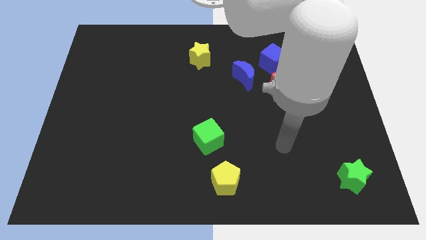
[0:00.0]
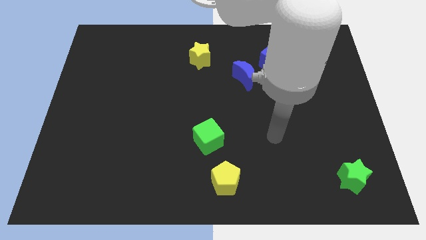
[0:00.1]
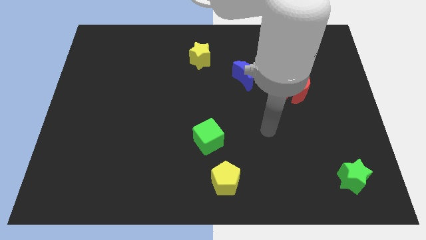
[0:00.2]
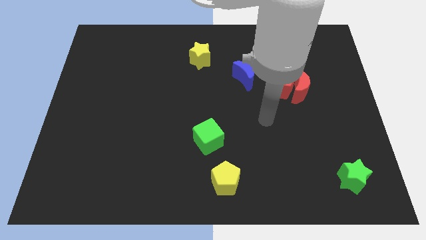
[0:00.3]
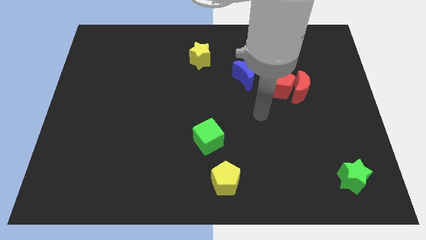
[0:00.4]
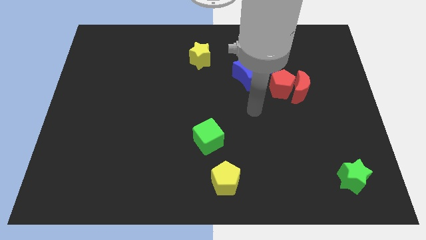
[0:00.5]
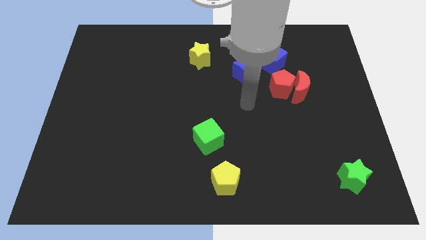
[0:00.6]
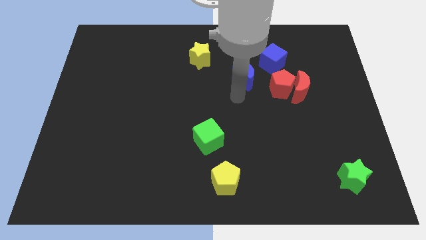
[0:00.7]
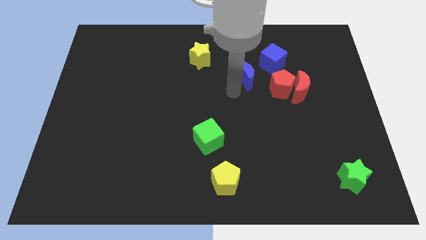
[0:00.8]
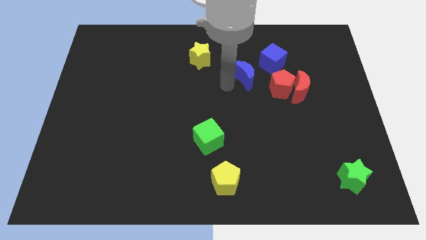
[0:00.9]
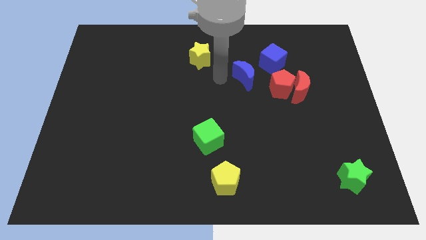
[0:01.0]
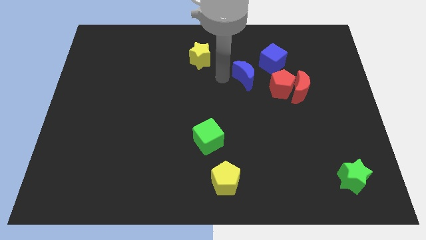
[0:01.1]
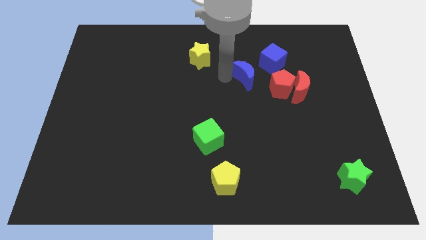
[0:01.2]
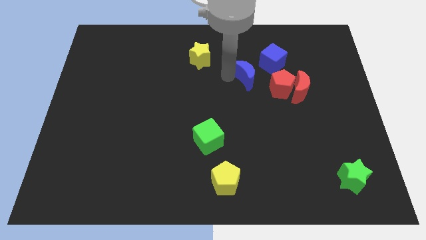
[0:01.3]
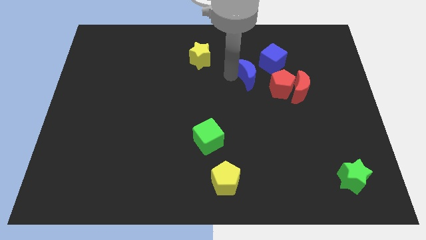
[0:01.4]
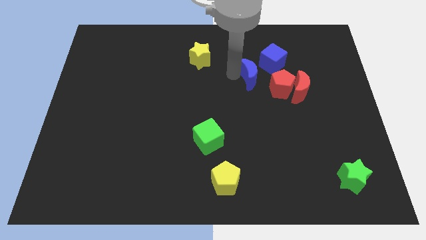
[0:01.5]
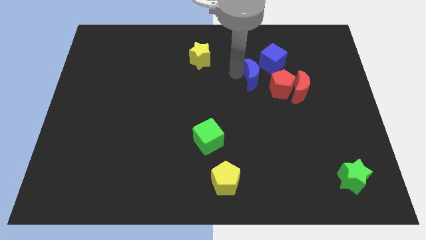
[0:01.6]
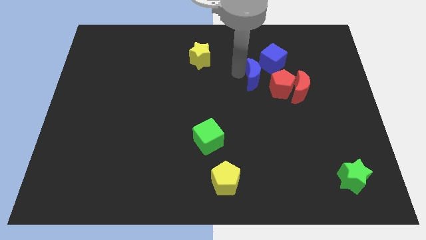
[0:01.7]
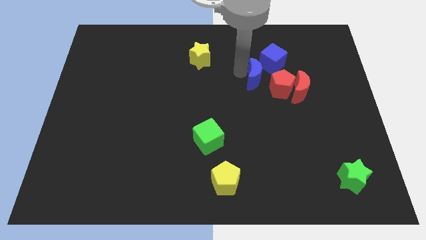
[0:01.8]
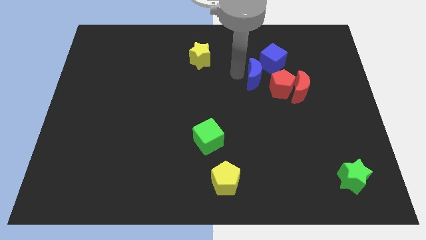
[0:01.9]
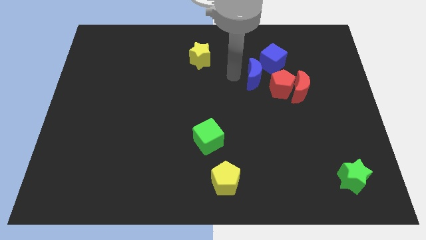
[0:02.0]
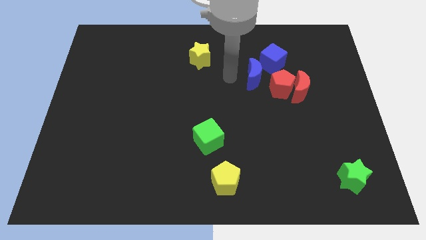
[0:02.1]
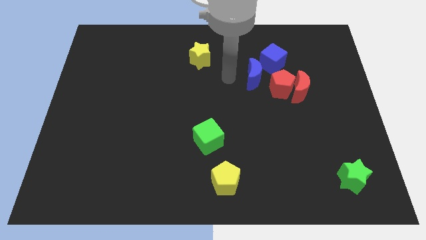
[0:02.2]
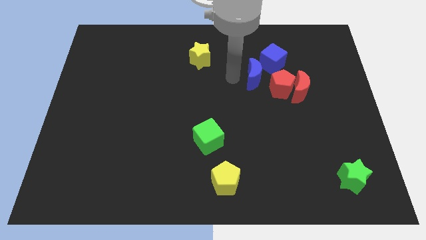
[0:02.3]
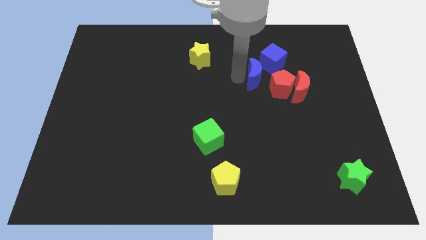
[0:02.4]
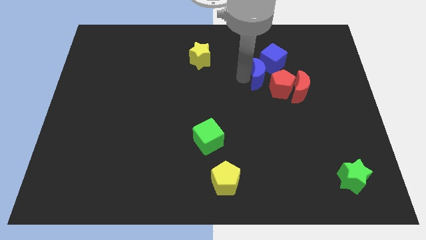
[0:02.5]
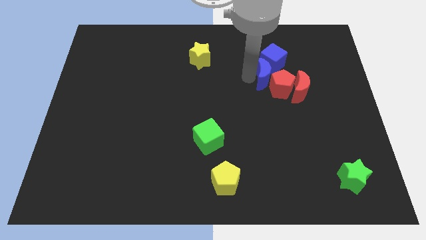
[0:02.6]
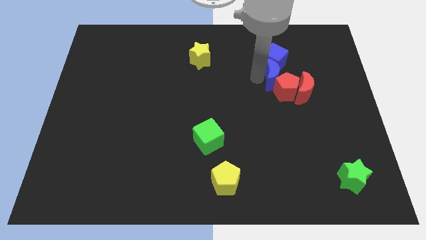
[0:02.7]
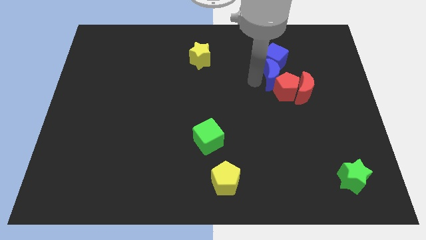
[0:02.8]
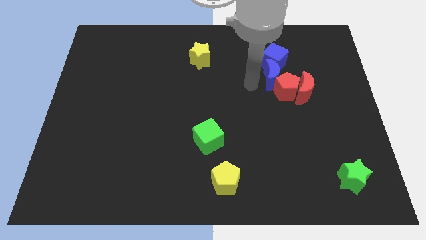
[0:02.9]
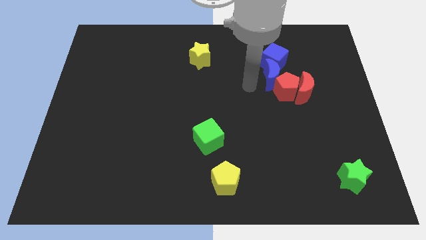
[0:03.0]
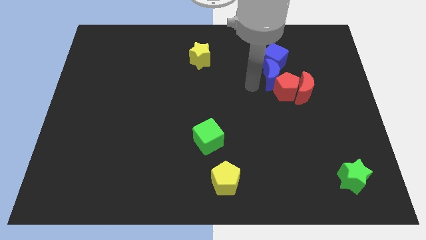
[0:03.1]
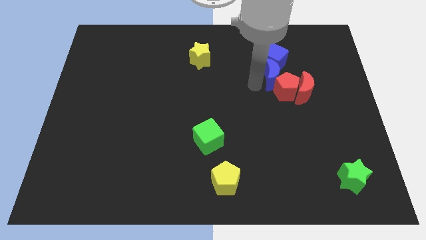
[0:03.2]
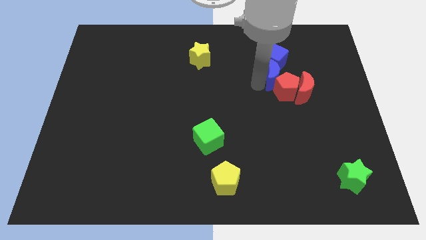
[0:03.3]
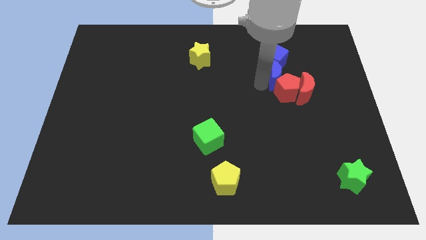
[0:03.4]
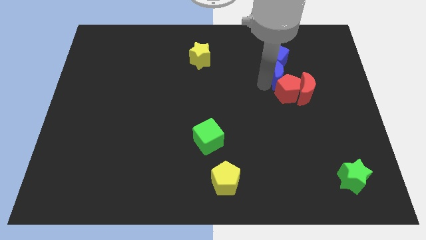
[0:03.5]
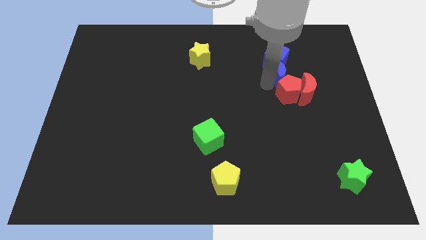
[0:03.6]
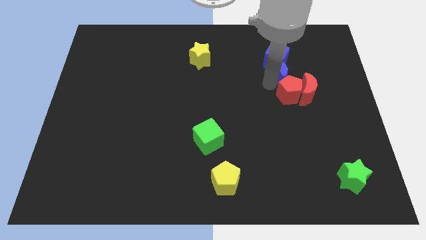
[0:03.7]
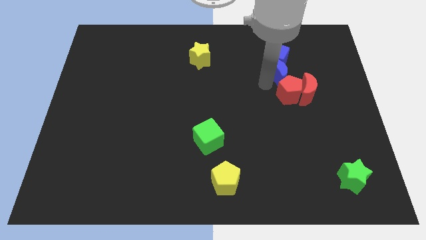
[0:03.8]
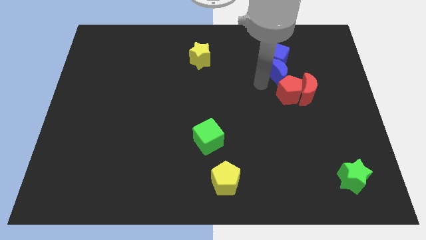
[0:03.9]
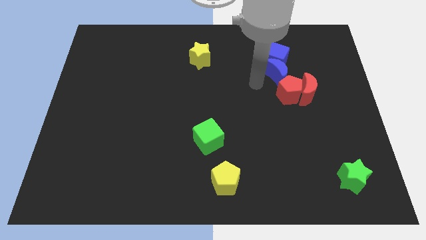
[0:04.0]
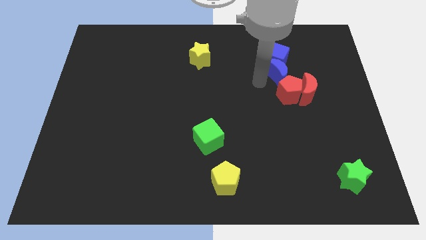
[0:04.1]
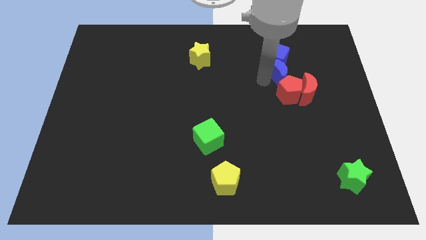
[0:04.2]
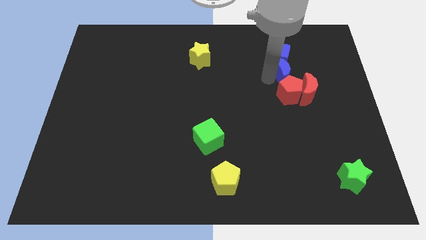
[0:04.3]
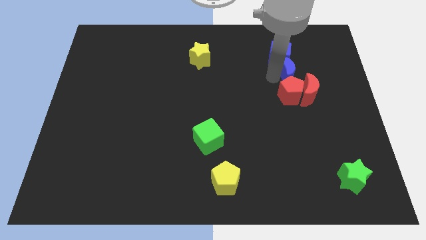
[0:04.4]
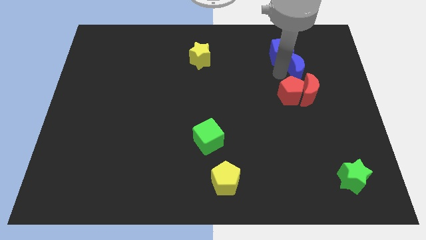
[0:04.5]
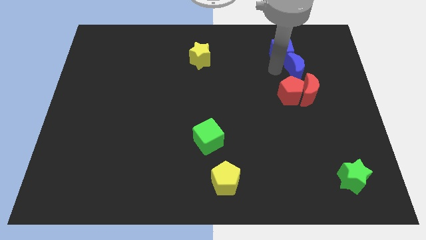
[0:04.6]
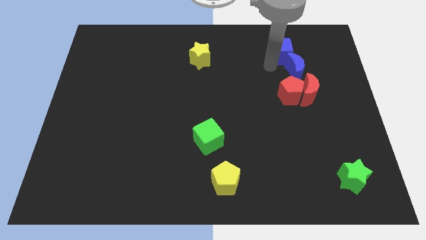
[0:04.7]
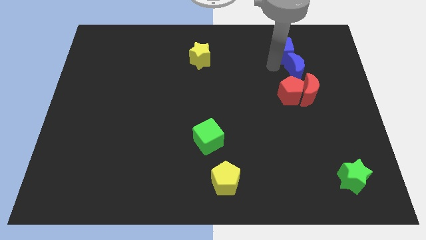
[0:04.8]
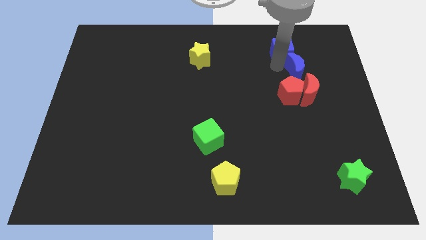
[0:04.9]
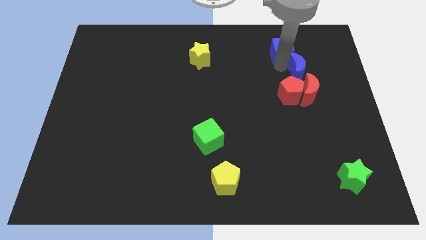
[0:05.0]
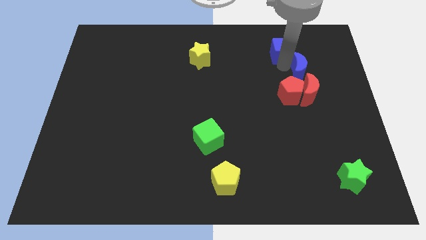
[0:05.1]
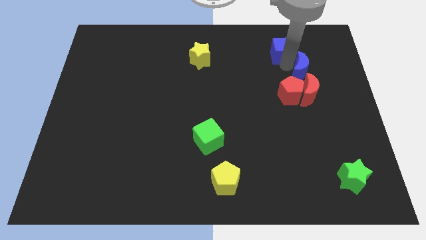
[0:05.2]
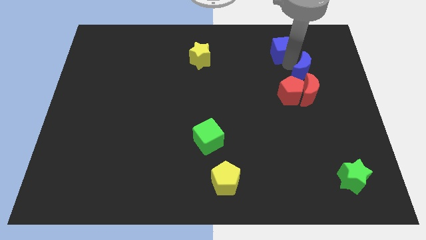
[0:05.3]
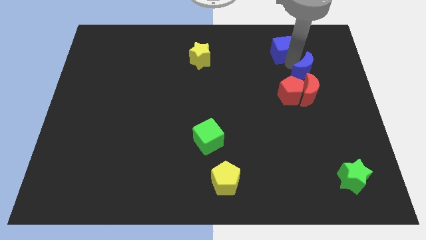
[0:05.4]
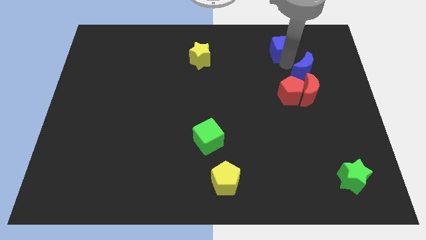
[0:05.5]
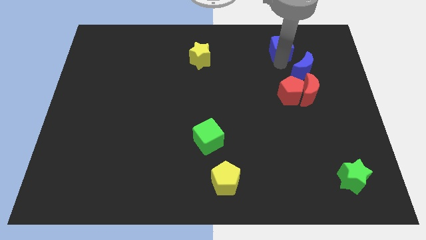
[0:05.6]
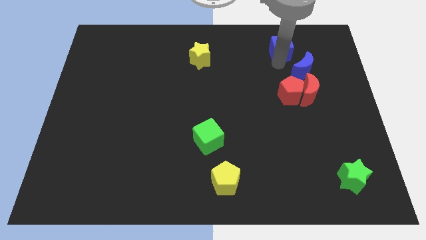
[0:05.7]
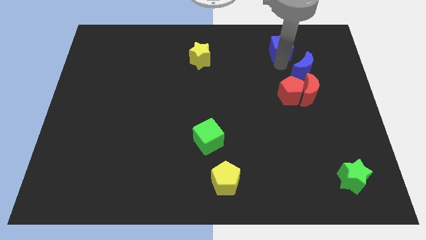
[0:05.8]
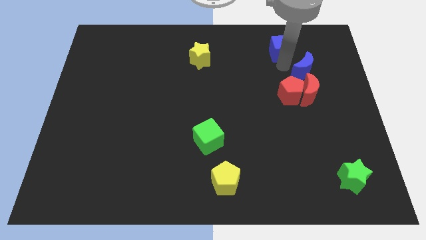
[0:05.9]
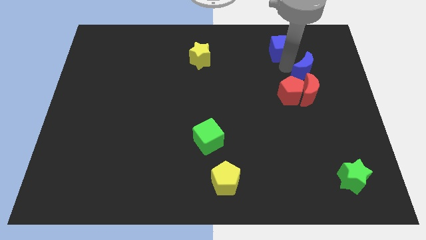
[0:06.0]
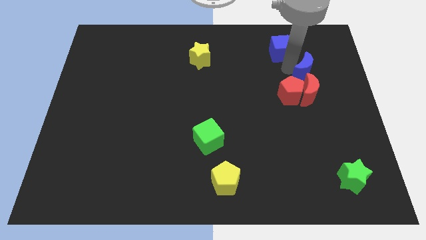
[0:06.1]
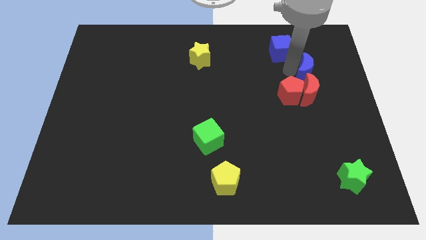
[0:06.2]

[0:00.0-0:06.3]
put the blue moon to the top right side of the red moon

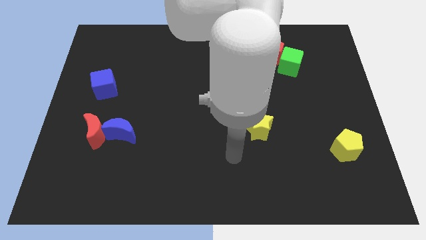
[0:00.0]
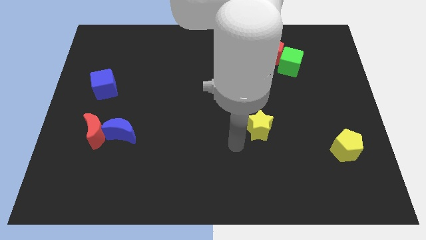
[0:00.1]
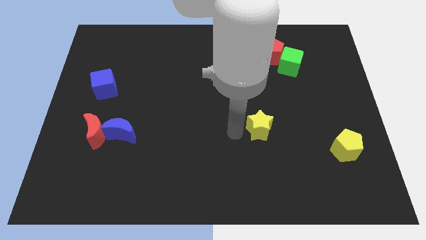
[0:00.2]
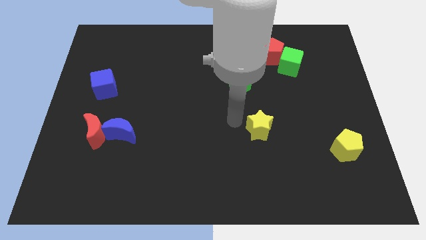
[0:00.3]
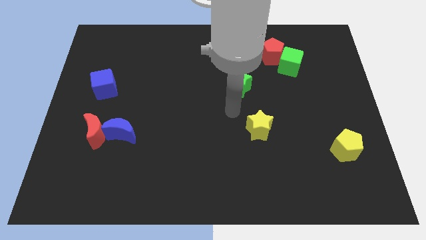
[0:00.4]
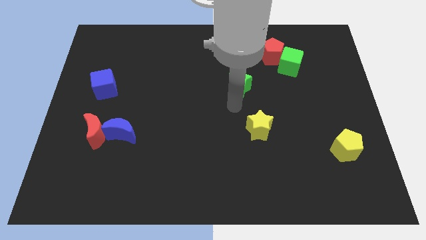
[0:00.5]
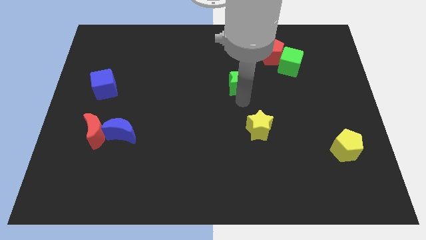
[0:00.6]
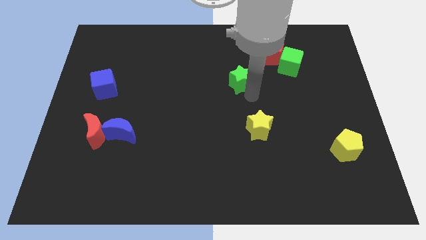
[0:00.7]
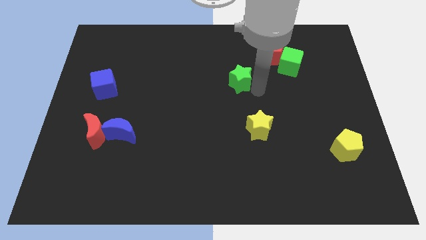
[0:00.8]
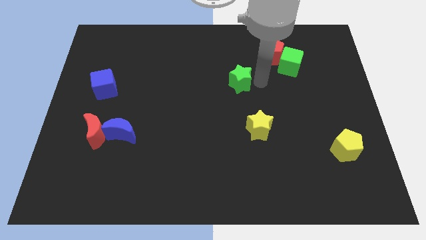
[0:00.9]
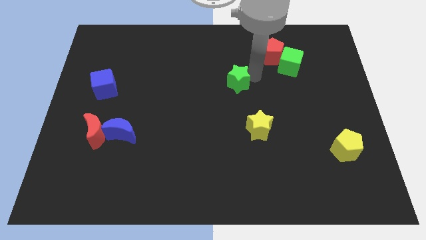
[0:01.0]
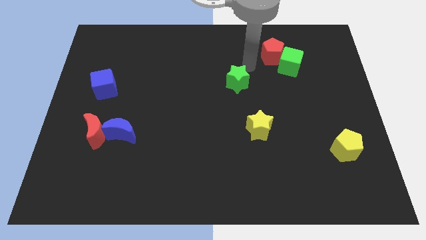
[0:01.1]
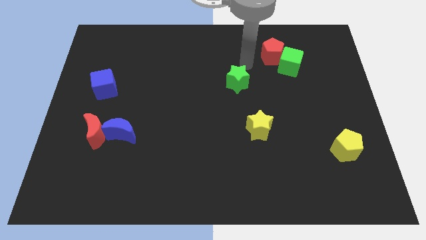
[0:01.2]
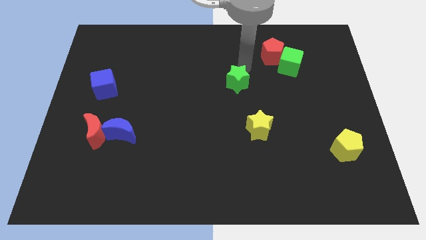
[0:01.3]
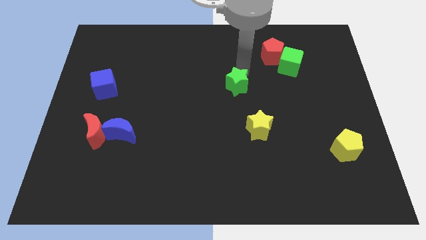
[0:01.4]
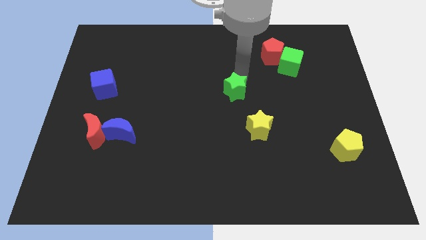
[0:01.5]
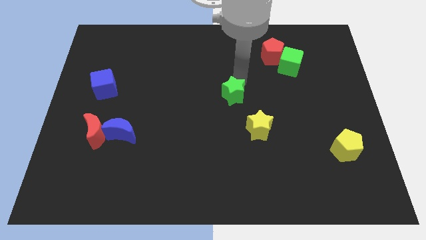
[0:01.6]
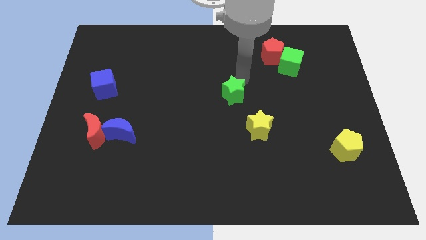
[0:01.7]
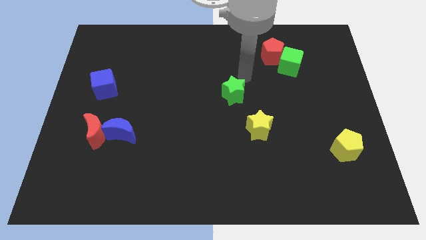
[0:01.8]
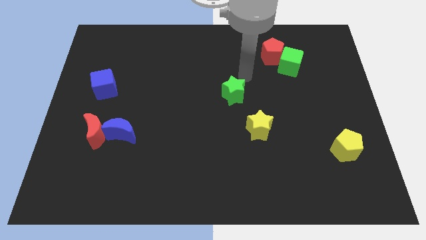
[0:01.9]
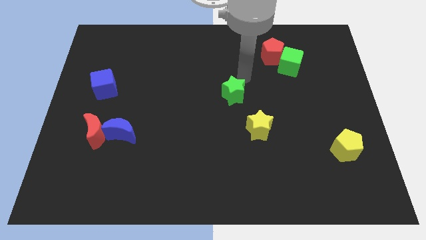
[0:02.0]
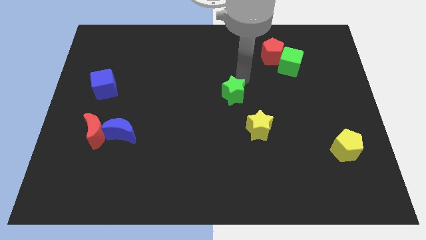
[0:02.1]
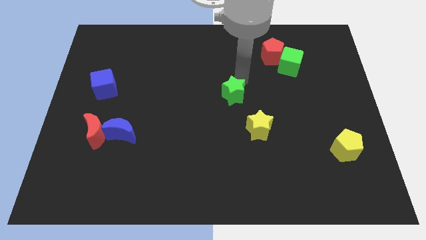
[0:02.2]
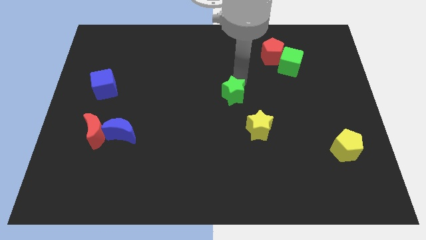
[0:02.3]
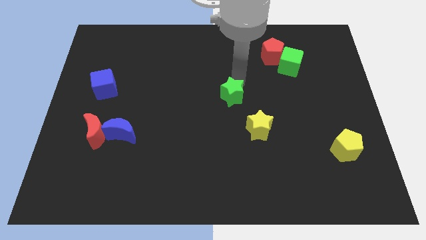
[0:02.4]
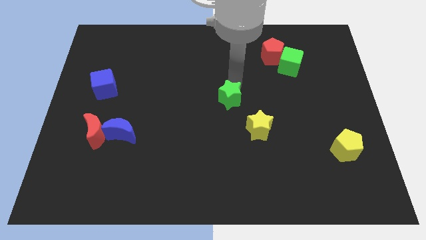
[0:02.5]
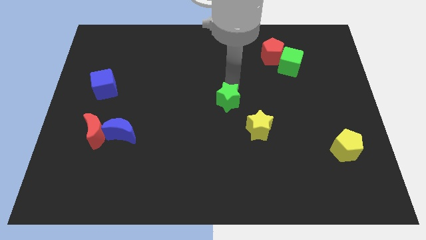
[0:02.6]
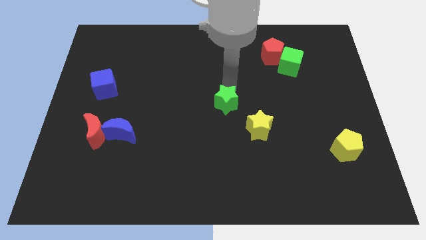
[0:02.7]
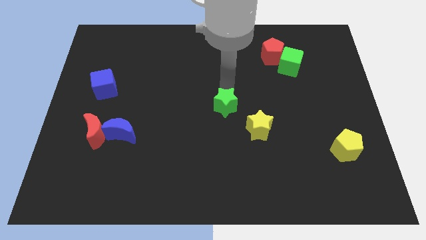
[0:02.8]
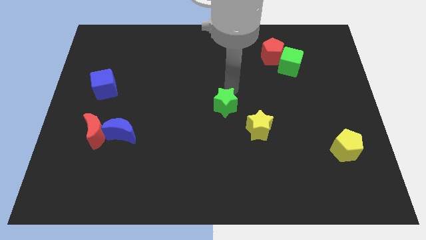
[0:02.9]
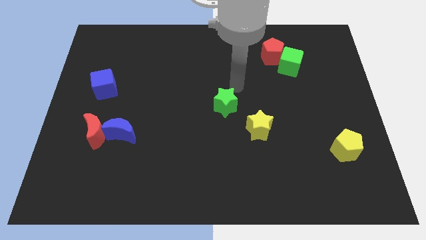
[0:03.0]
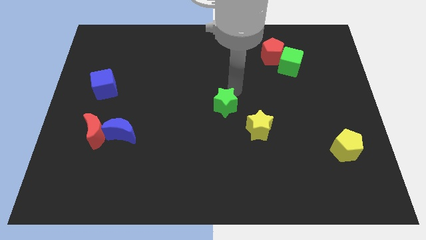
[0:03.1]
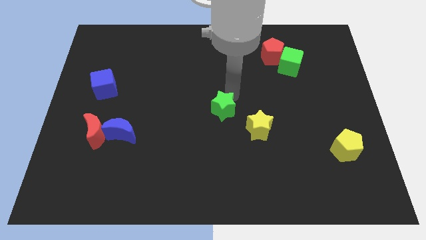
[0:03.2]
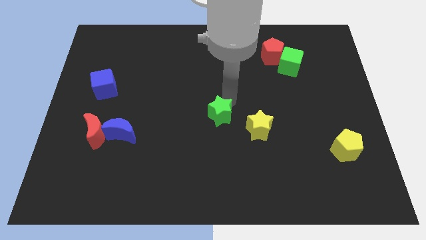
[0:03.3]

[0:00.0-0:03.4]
move the green star to the left side of the yellow star
